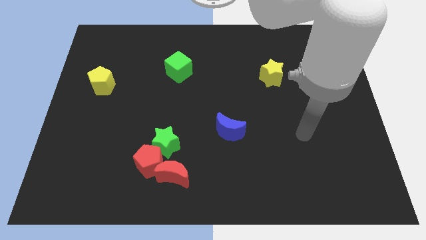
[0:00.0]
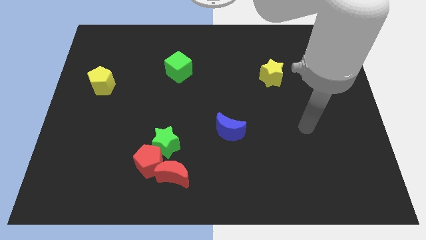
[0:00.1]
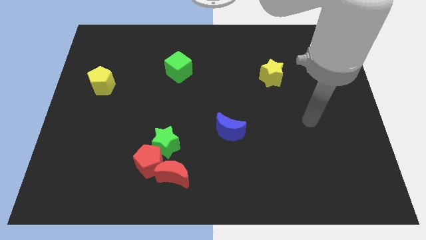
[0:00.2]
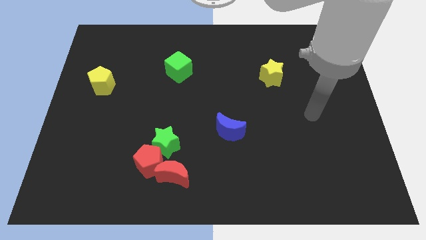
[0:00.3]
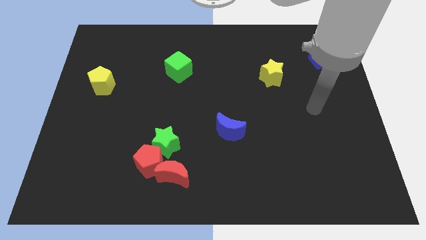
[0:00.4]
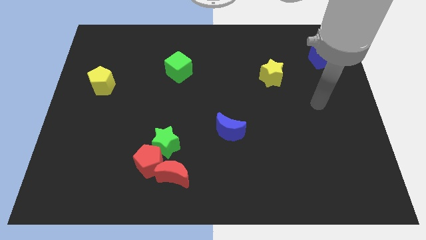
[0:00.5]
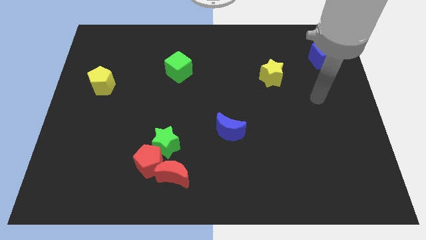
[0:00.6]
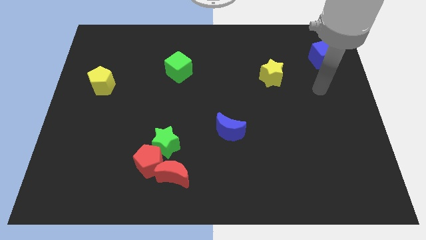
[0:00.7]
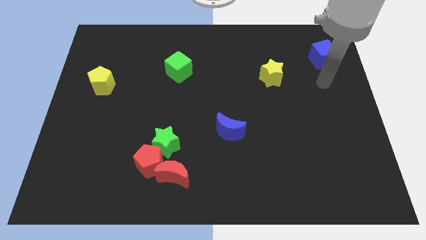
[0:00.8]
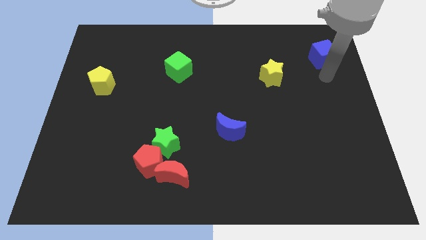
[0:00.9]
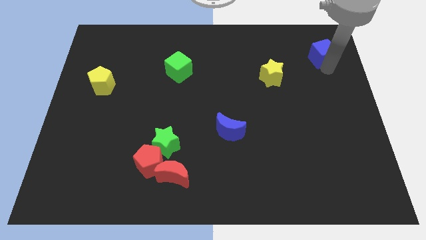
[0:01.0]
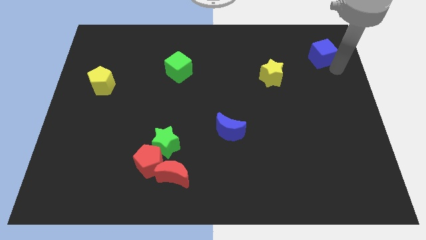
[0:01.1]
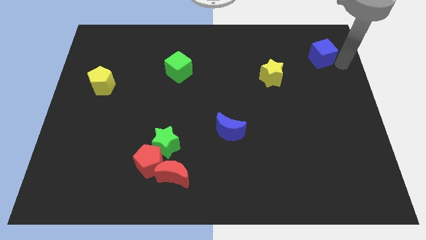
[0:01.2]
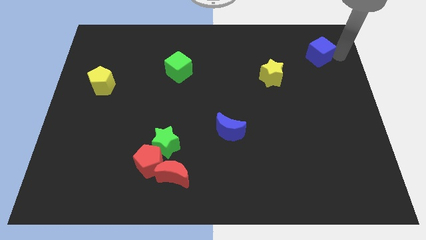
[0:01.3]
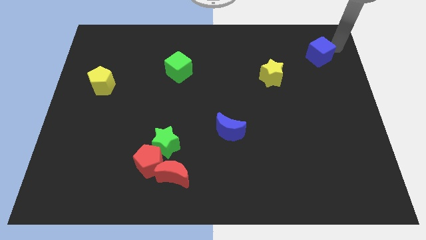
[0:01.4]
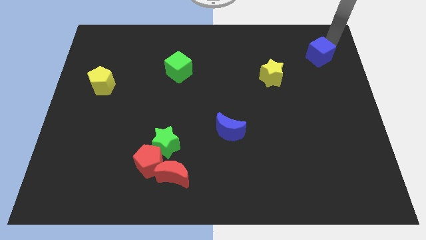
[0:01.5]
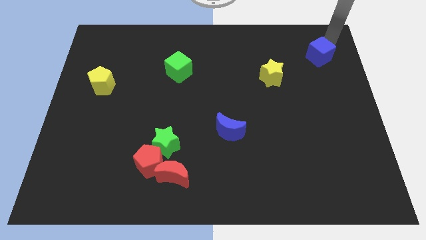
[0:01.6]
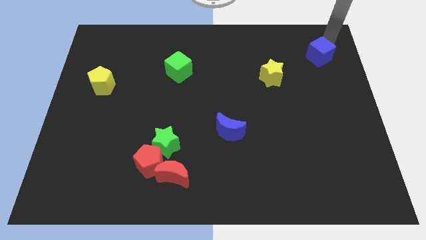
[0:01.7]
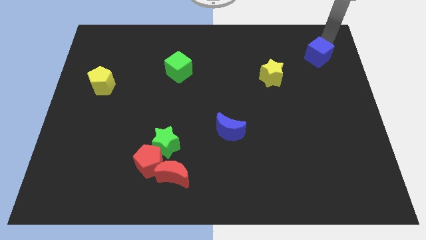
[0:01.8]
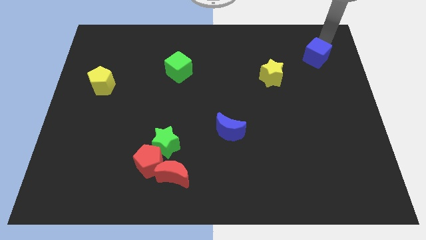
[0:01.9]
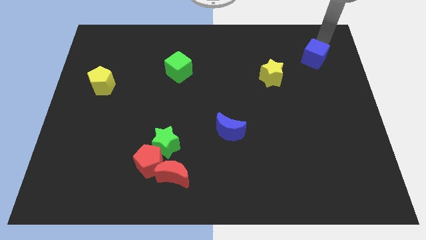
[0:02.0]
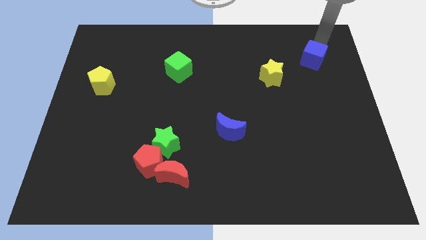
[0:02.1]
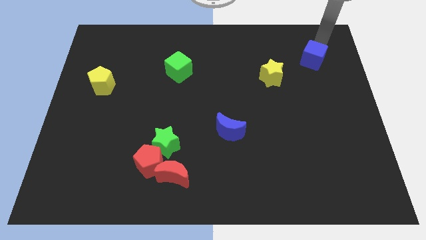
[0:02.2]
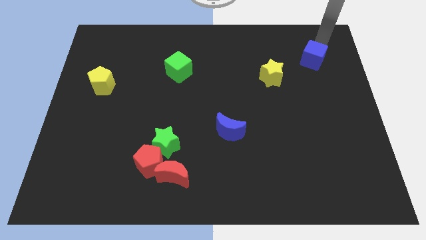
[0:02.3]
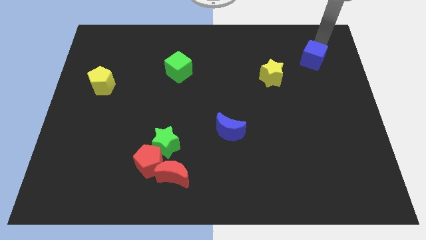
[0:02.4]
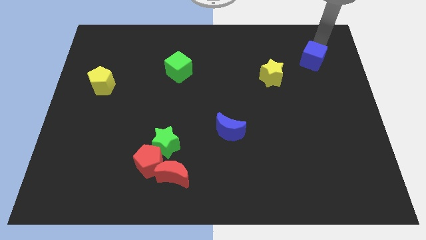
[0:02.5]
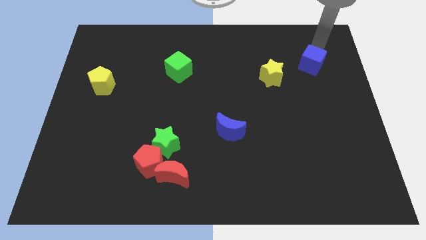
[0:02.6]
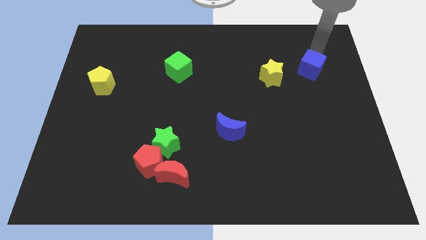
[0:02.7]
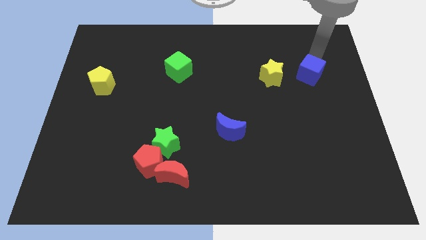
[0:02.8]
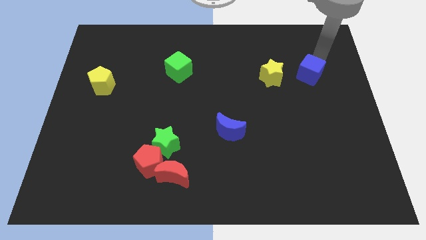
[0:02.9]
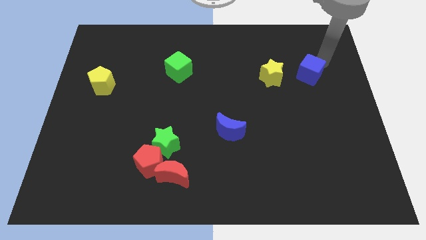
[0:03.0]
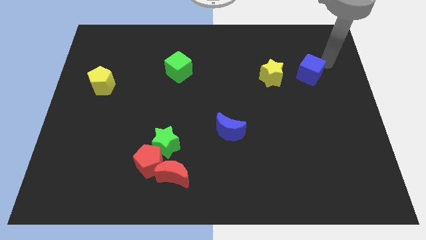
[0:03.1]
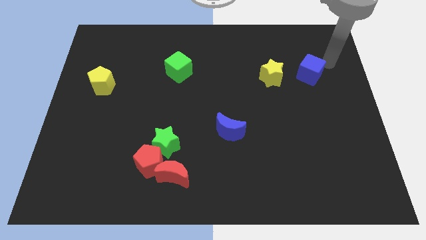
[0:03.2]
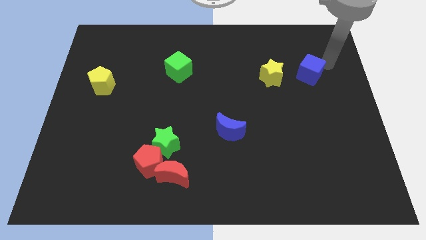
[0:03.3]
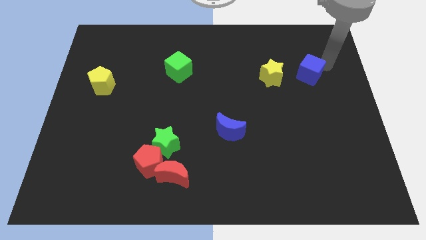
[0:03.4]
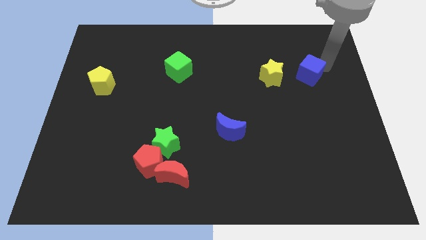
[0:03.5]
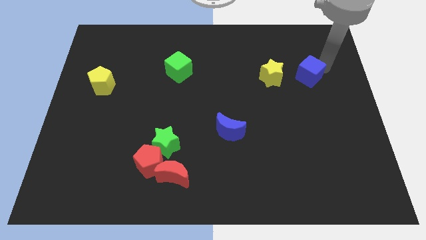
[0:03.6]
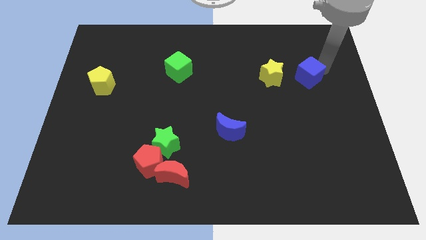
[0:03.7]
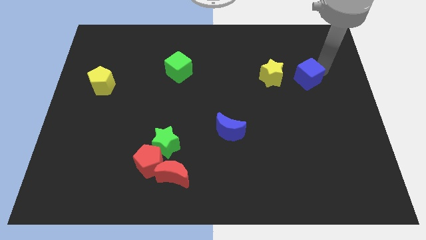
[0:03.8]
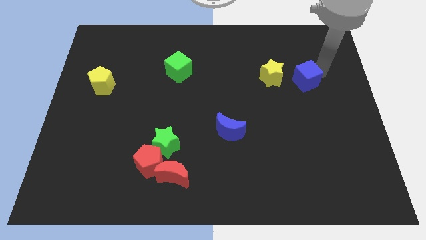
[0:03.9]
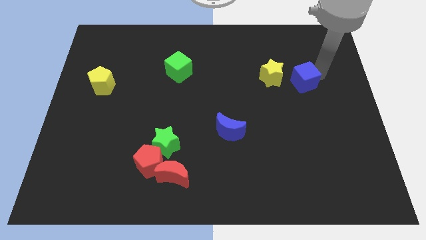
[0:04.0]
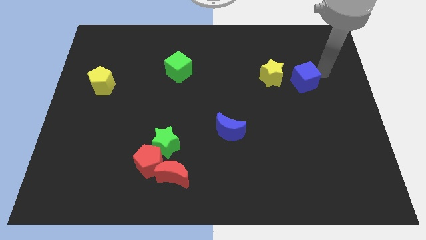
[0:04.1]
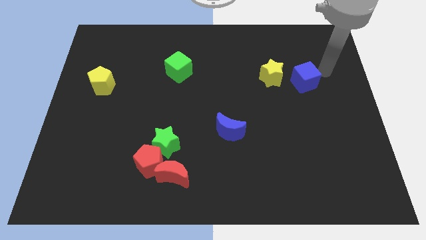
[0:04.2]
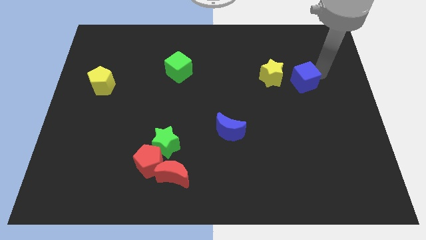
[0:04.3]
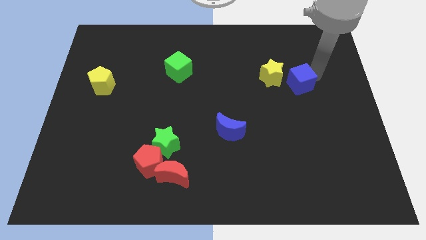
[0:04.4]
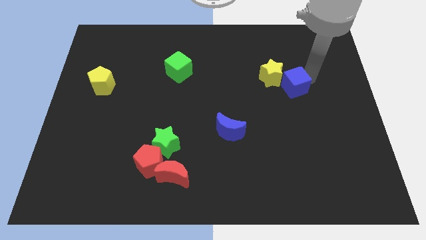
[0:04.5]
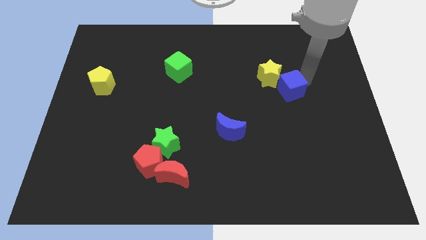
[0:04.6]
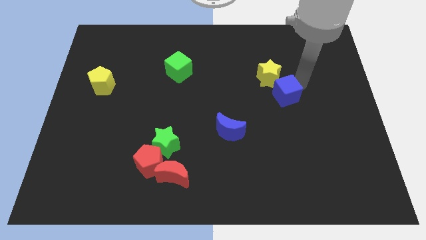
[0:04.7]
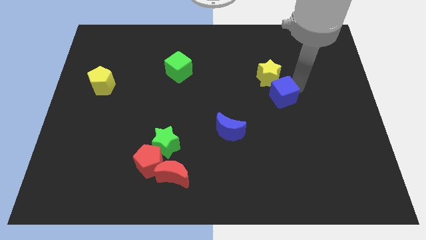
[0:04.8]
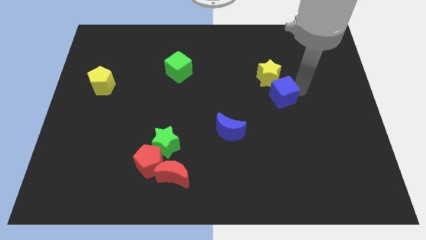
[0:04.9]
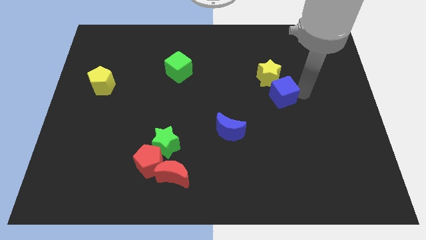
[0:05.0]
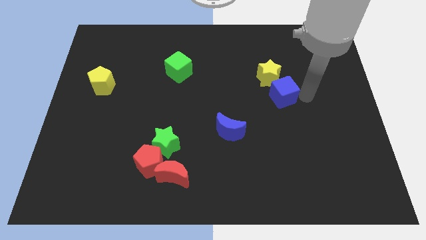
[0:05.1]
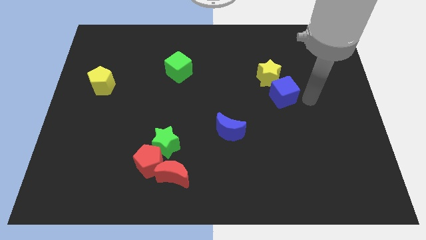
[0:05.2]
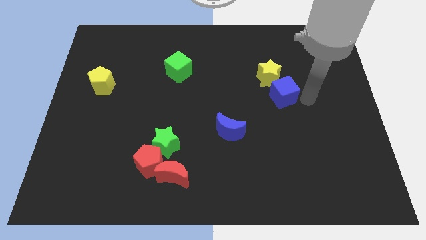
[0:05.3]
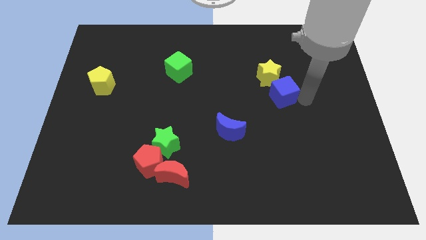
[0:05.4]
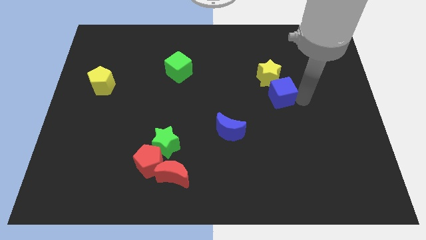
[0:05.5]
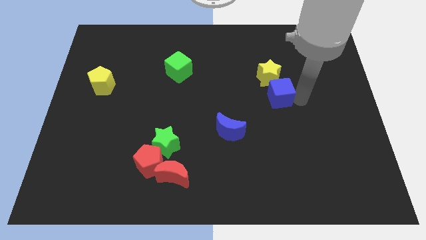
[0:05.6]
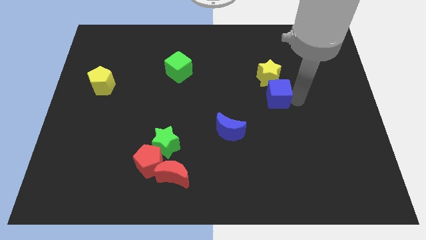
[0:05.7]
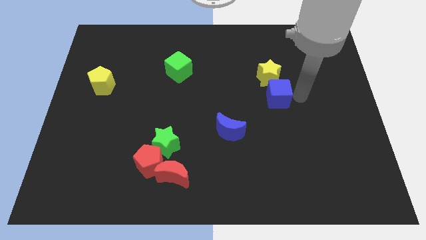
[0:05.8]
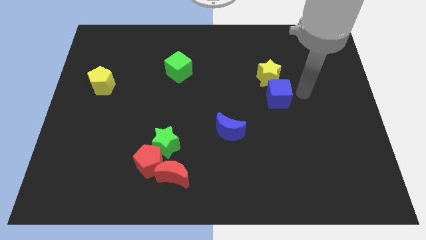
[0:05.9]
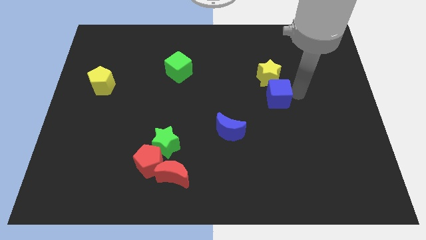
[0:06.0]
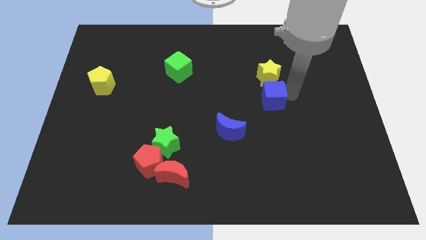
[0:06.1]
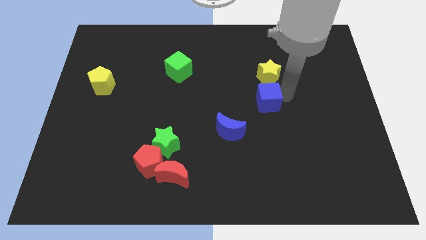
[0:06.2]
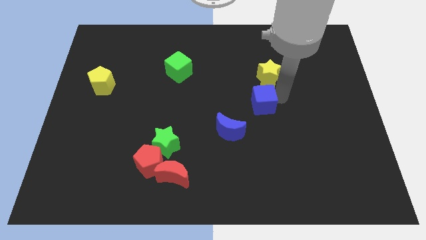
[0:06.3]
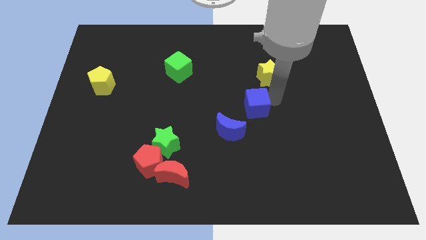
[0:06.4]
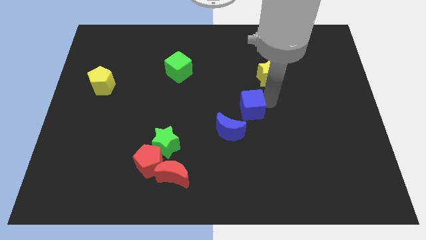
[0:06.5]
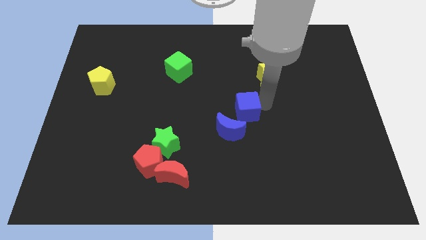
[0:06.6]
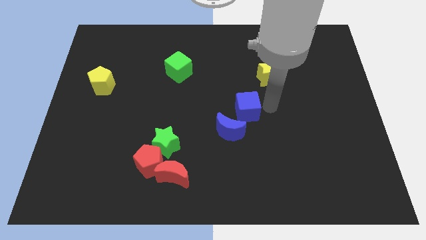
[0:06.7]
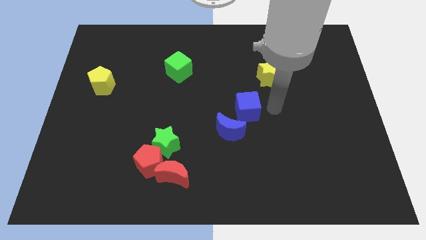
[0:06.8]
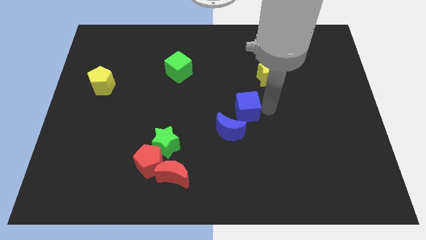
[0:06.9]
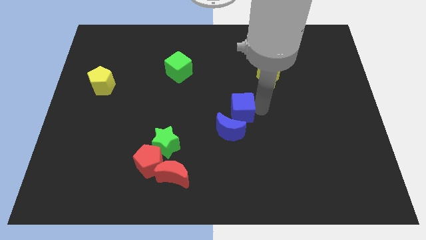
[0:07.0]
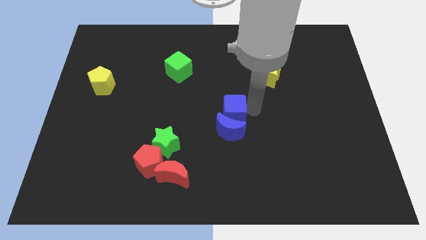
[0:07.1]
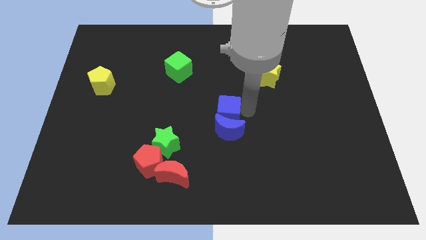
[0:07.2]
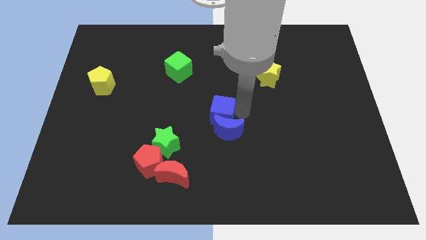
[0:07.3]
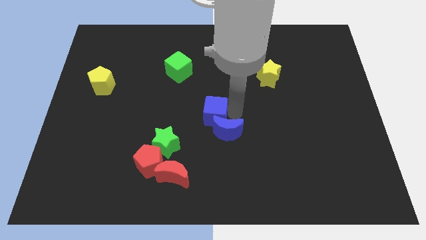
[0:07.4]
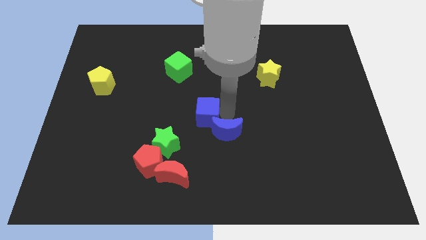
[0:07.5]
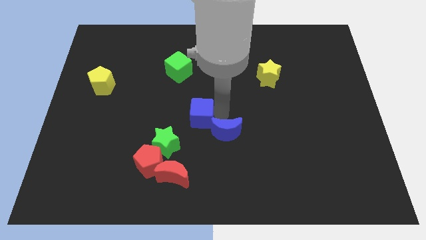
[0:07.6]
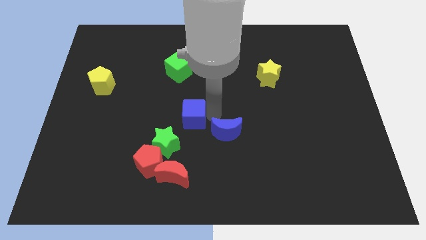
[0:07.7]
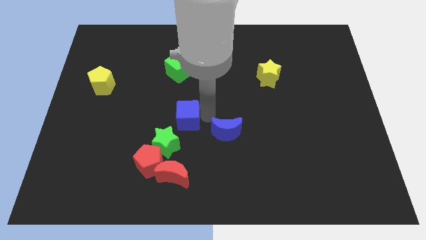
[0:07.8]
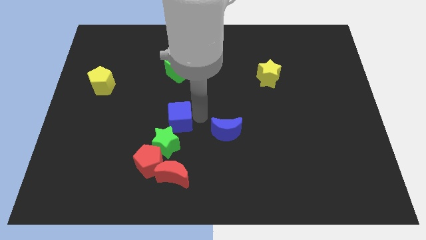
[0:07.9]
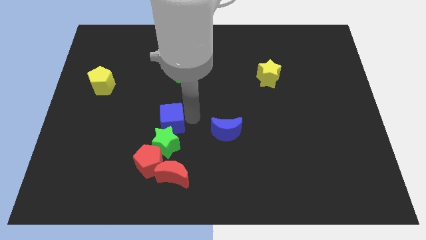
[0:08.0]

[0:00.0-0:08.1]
put the blue cube above the red pentagon
